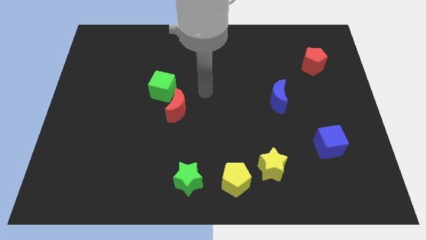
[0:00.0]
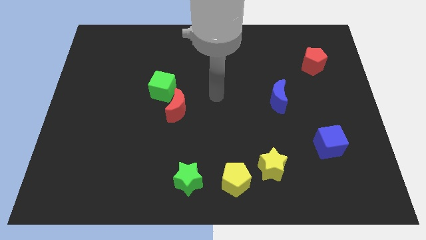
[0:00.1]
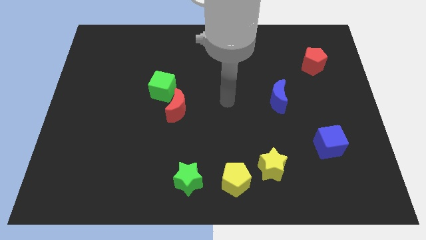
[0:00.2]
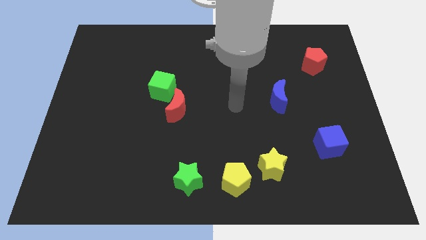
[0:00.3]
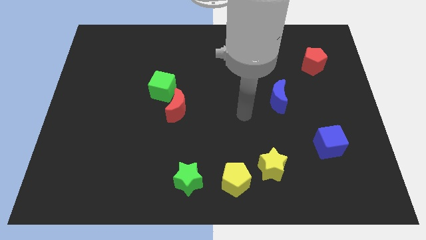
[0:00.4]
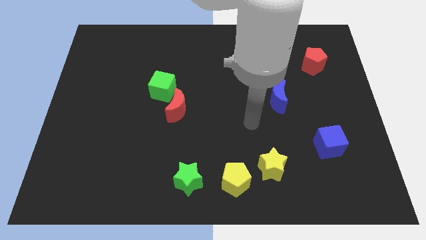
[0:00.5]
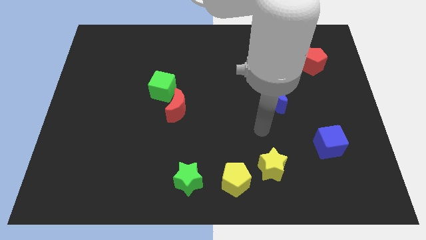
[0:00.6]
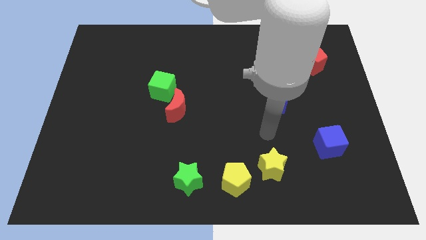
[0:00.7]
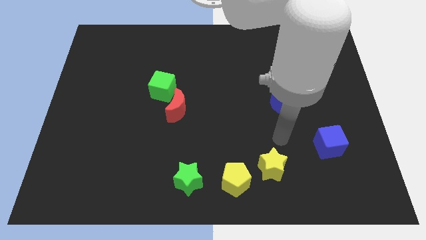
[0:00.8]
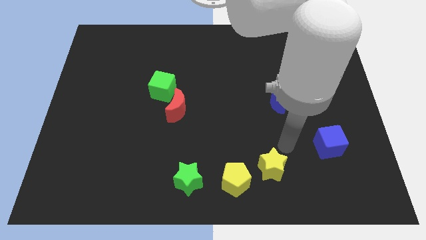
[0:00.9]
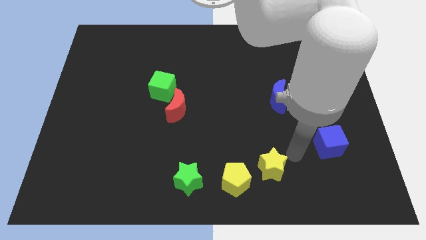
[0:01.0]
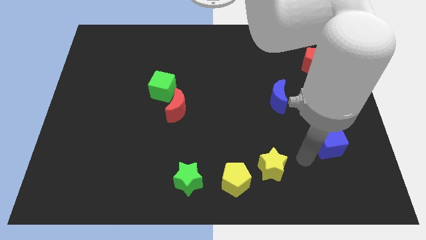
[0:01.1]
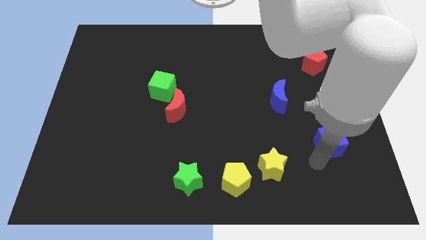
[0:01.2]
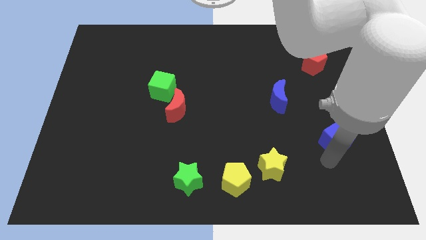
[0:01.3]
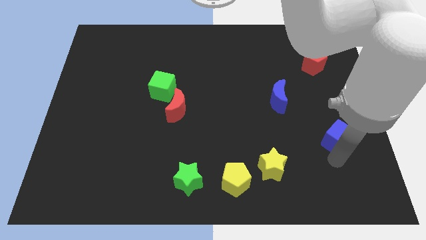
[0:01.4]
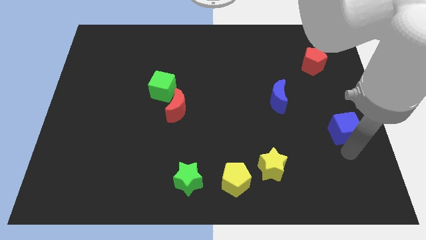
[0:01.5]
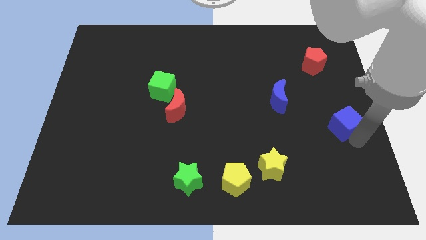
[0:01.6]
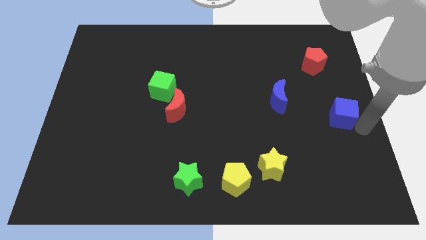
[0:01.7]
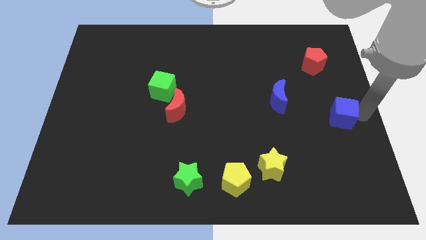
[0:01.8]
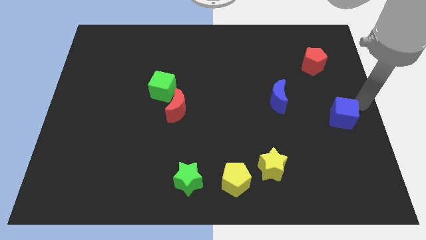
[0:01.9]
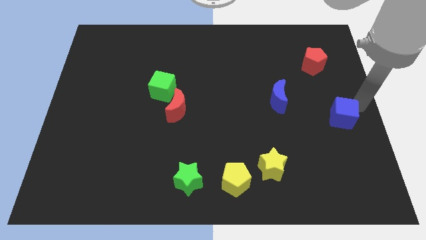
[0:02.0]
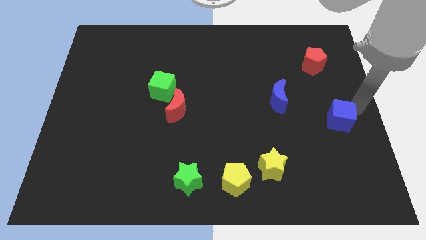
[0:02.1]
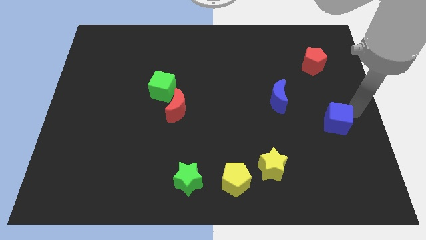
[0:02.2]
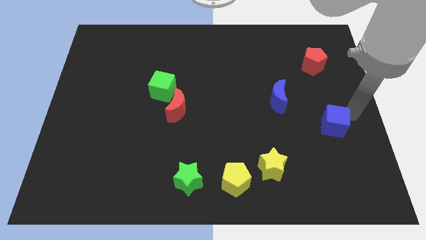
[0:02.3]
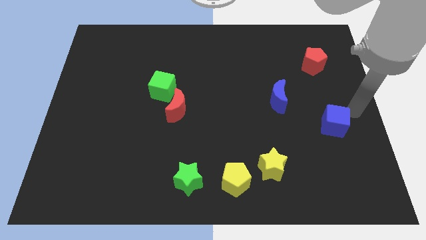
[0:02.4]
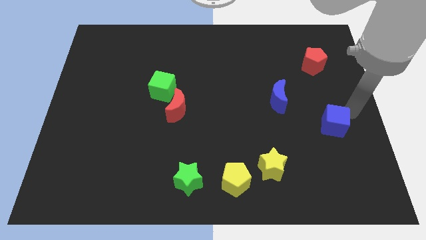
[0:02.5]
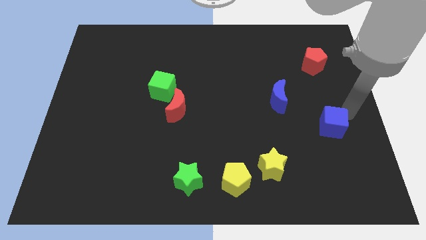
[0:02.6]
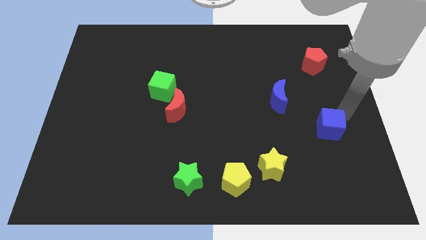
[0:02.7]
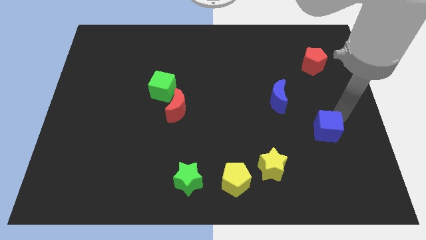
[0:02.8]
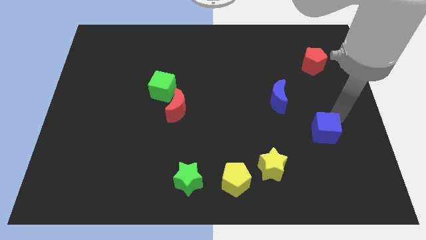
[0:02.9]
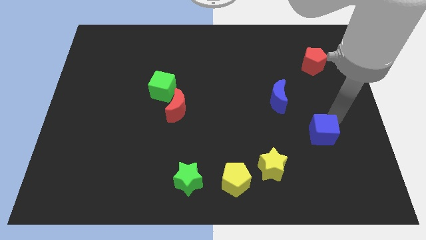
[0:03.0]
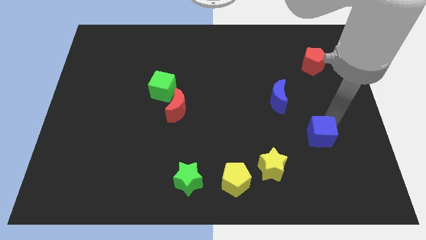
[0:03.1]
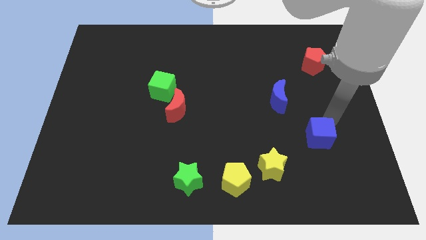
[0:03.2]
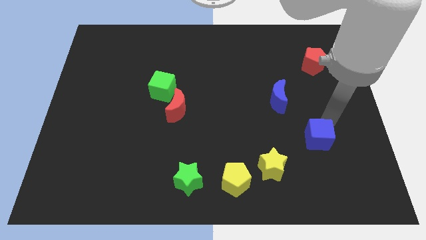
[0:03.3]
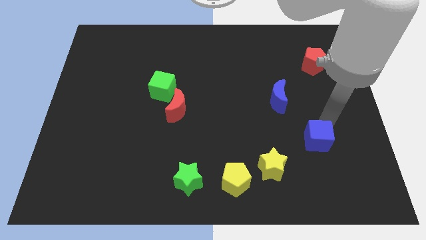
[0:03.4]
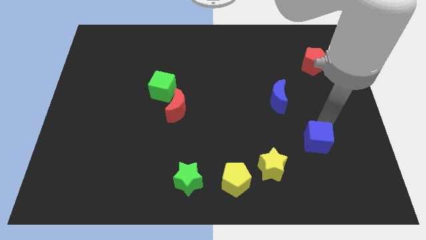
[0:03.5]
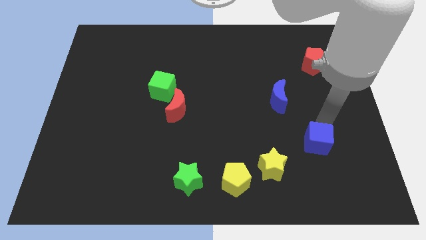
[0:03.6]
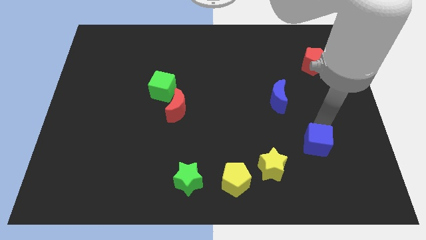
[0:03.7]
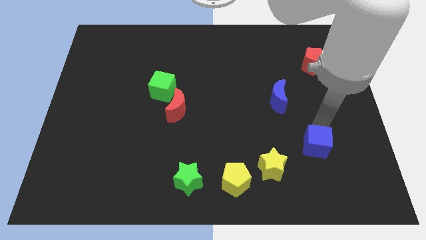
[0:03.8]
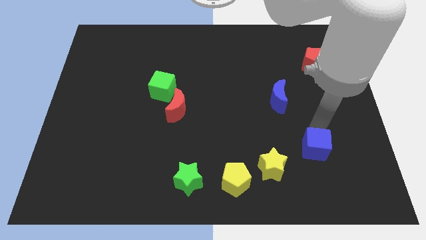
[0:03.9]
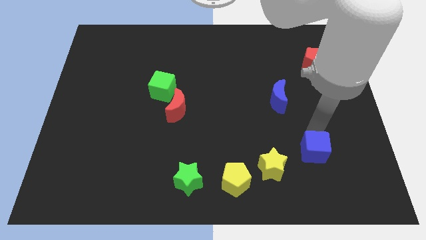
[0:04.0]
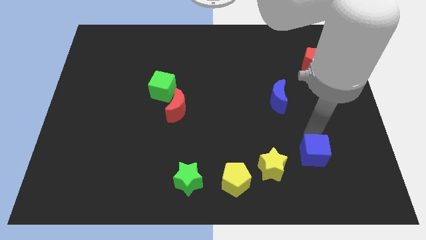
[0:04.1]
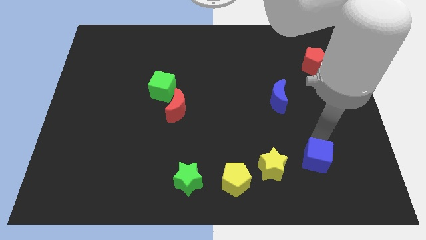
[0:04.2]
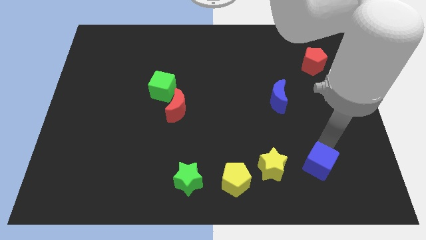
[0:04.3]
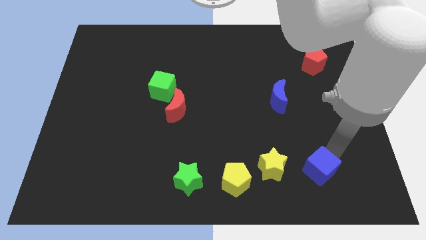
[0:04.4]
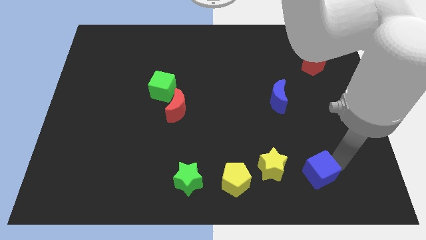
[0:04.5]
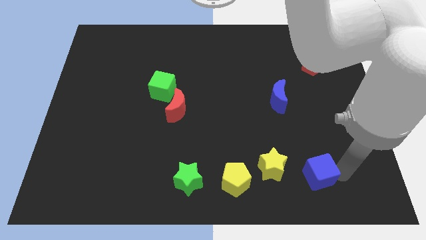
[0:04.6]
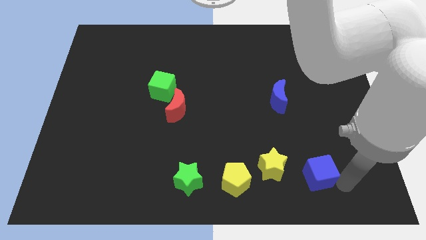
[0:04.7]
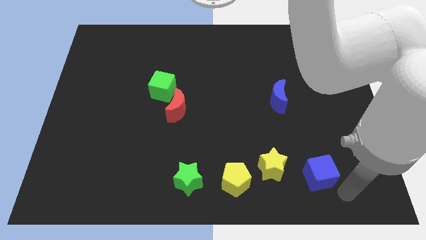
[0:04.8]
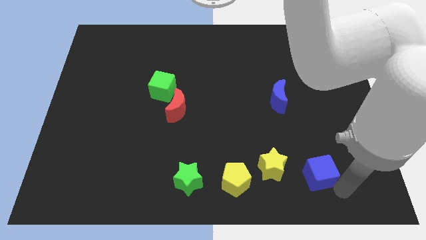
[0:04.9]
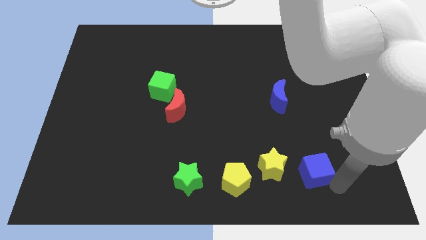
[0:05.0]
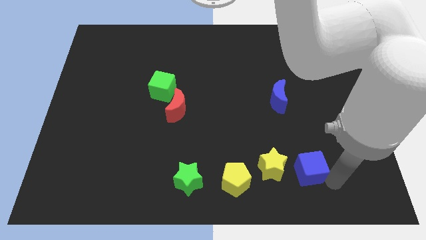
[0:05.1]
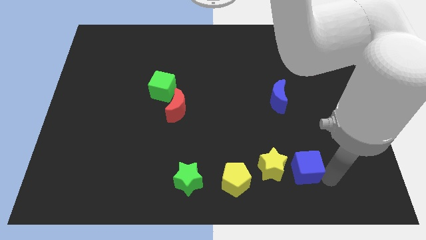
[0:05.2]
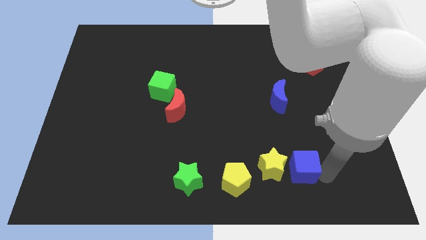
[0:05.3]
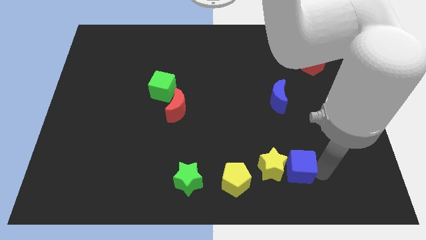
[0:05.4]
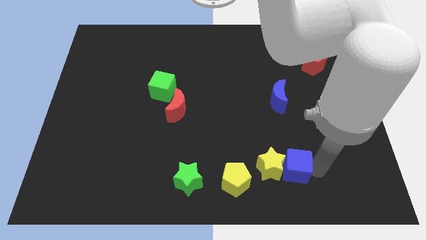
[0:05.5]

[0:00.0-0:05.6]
slide the blue cube slightly to the left

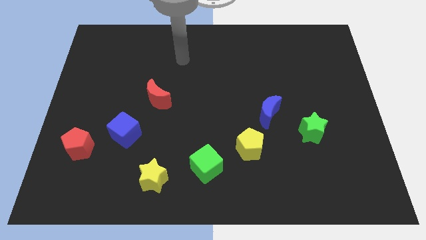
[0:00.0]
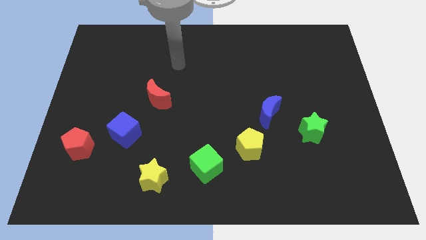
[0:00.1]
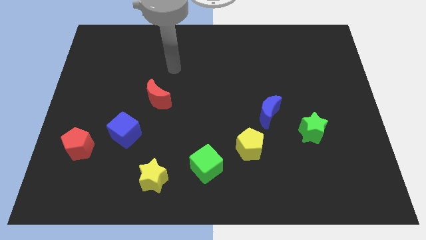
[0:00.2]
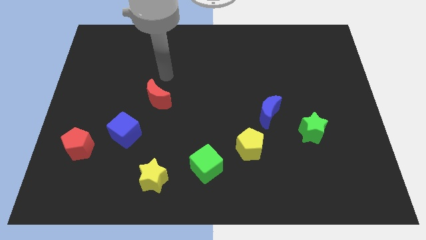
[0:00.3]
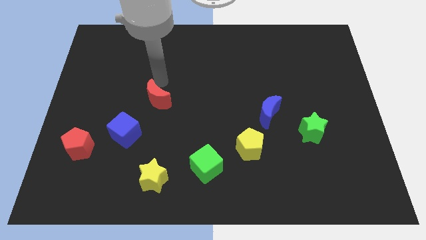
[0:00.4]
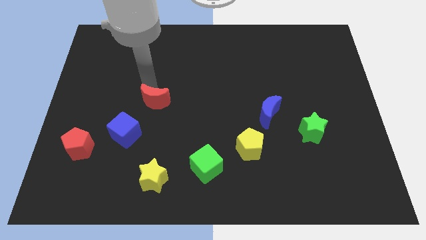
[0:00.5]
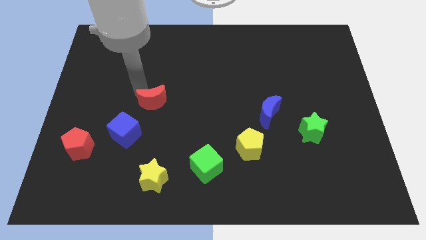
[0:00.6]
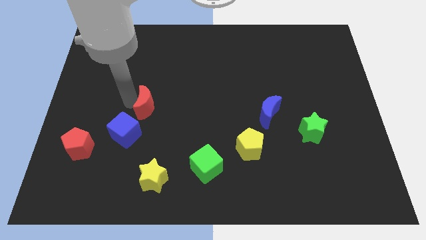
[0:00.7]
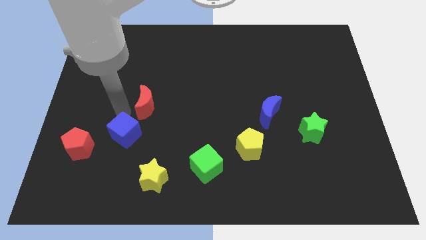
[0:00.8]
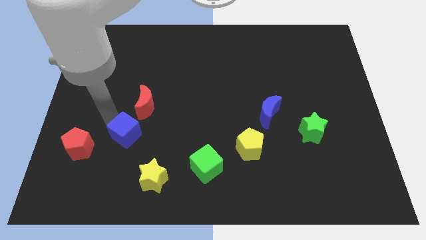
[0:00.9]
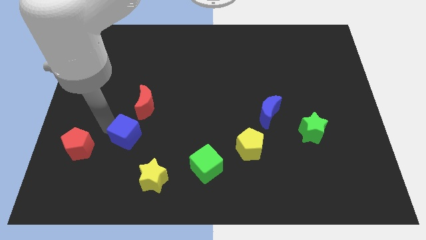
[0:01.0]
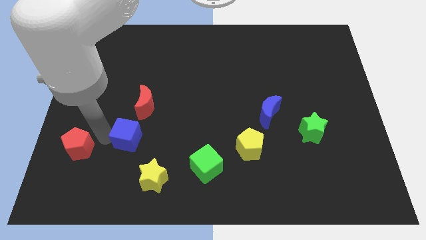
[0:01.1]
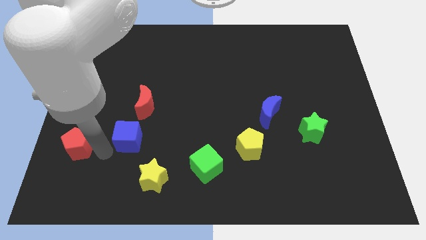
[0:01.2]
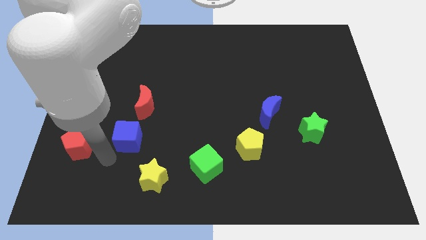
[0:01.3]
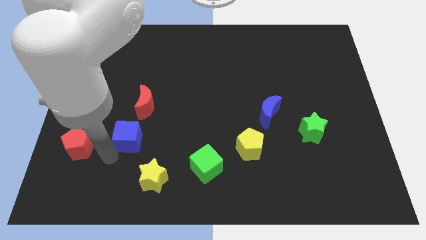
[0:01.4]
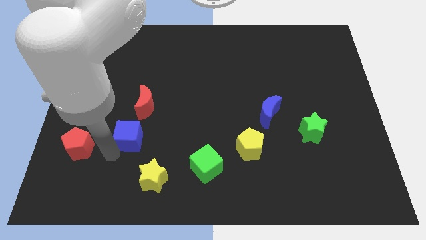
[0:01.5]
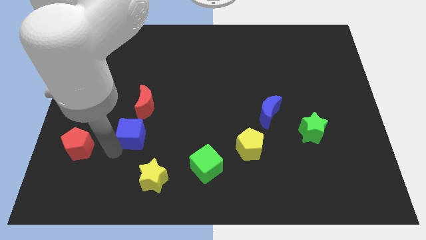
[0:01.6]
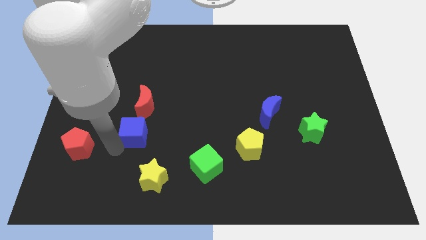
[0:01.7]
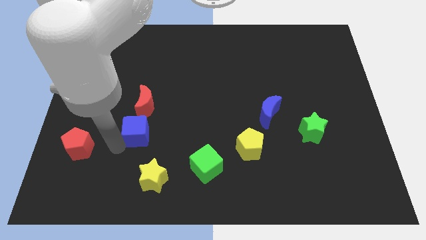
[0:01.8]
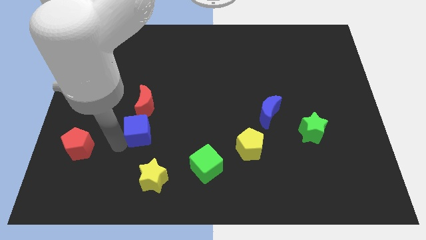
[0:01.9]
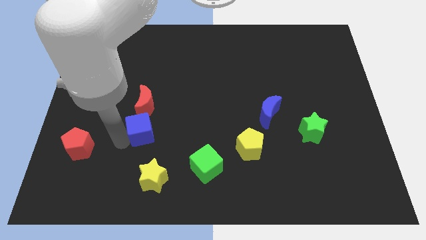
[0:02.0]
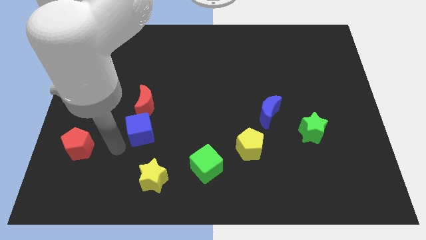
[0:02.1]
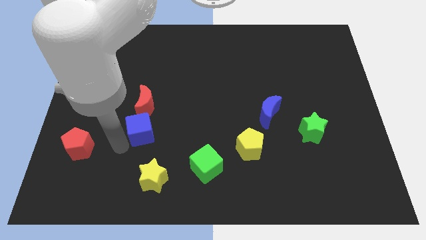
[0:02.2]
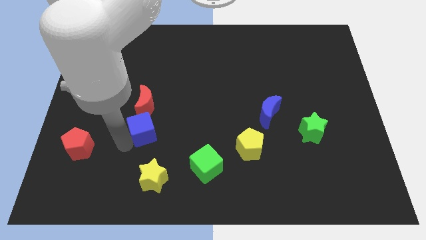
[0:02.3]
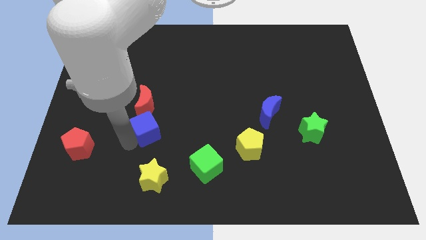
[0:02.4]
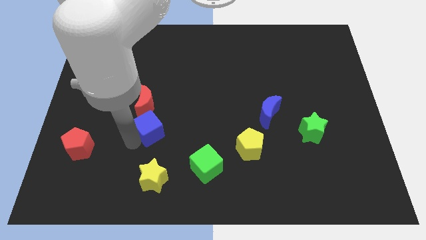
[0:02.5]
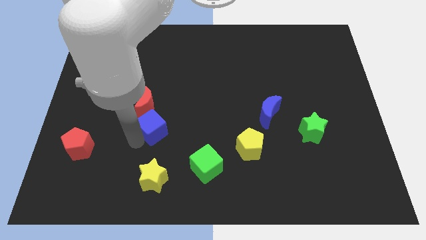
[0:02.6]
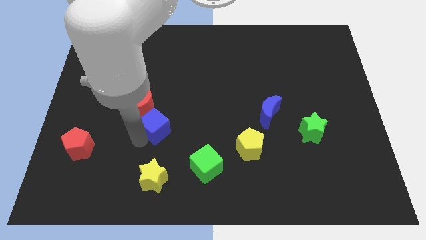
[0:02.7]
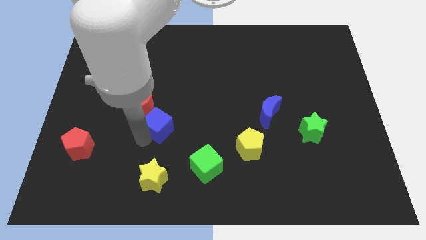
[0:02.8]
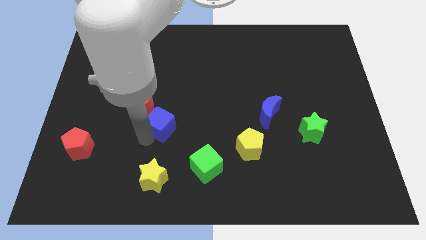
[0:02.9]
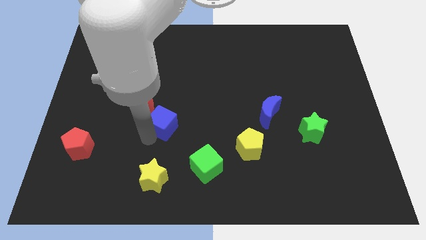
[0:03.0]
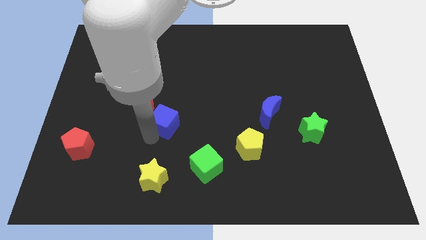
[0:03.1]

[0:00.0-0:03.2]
slide the blue cube a little bit up and right diagonally
